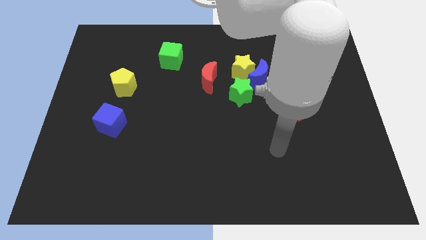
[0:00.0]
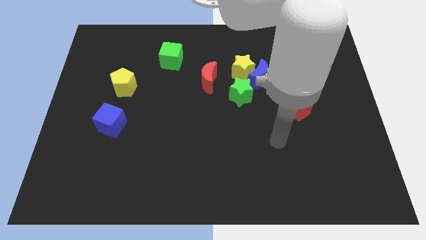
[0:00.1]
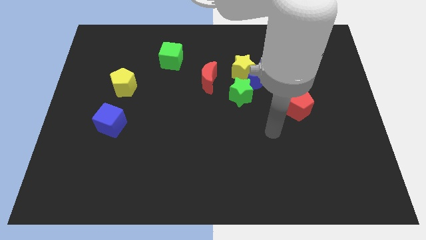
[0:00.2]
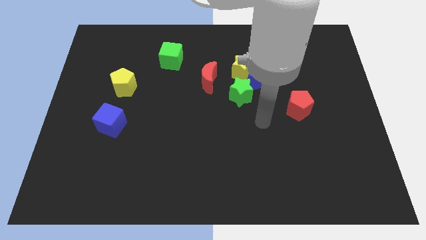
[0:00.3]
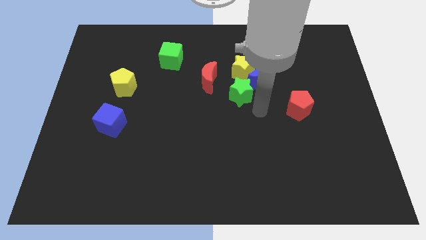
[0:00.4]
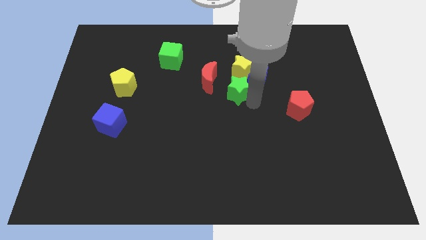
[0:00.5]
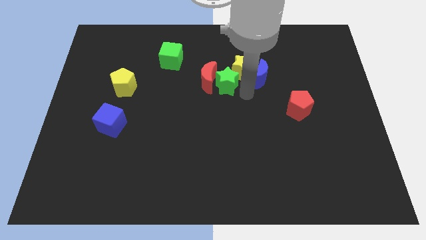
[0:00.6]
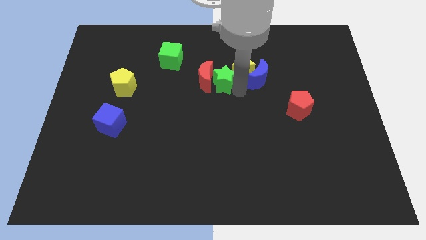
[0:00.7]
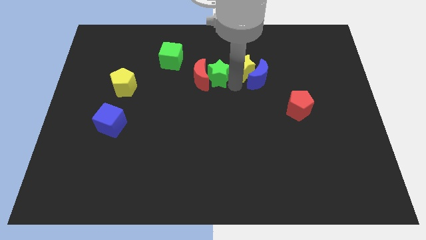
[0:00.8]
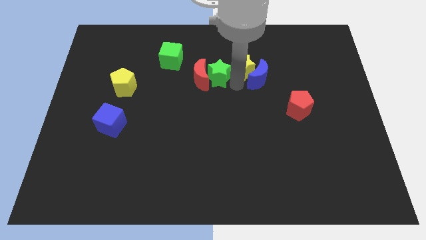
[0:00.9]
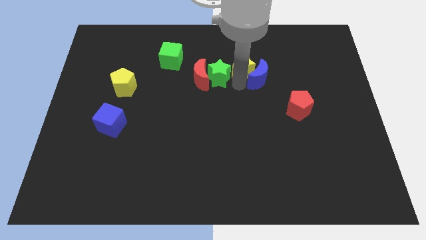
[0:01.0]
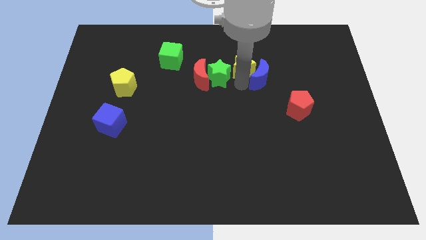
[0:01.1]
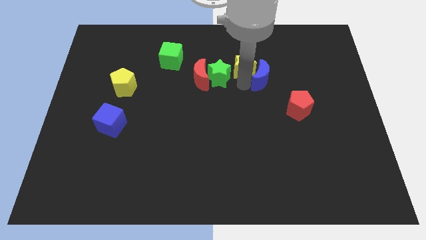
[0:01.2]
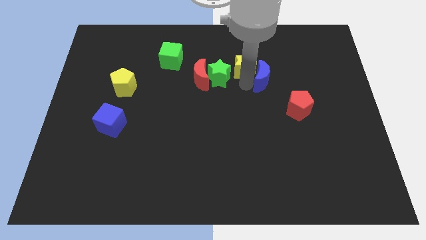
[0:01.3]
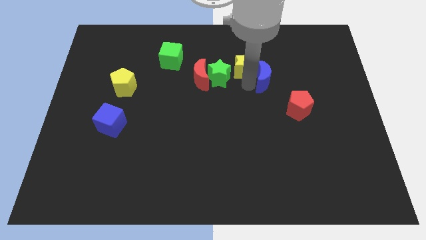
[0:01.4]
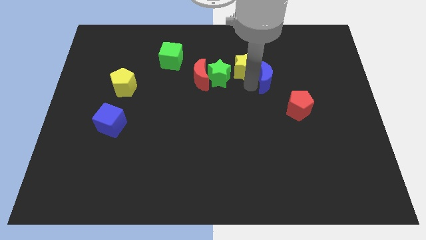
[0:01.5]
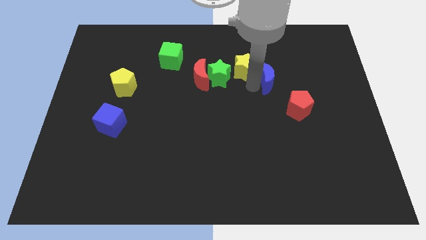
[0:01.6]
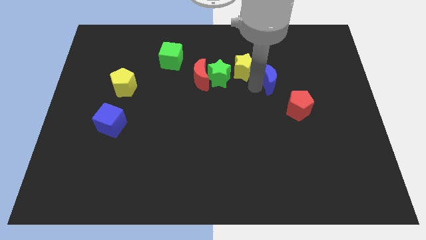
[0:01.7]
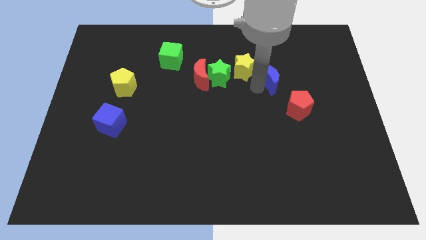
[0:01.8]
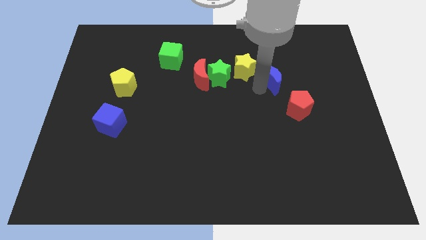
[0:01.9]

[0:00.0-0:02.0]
pull the blue moon apart from the yellow star and green star

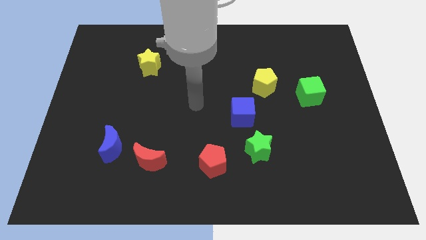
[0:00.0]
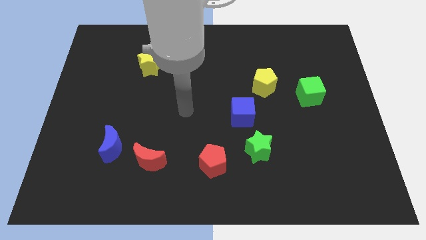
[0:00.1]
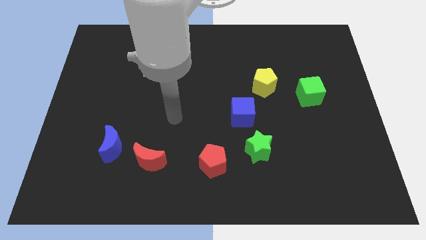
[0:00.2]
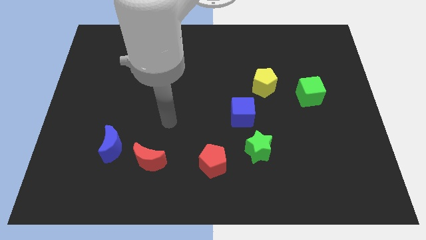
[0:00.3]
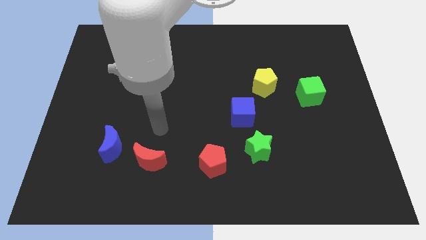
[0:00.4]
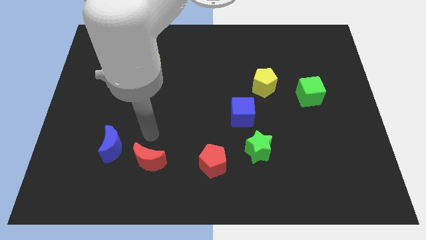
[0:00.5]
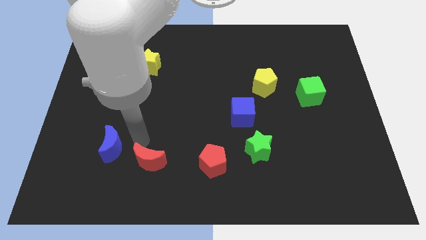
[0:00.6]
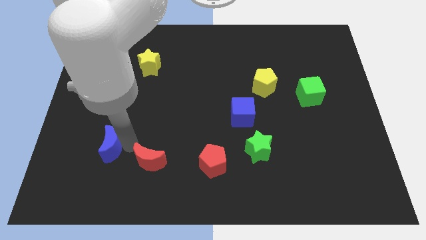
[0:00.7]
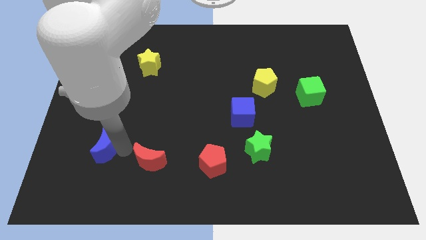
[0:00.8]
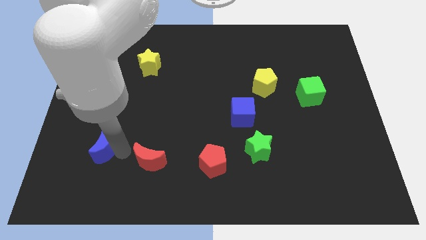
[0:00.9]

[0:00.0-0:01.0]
move the red moon away from the blue moon

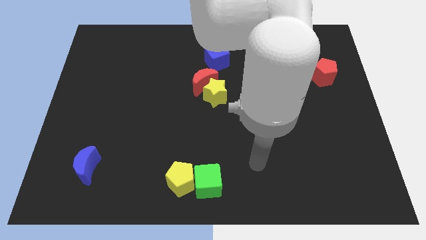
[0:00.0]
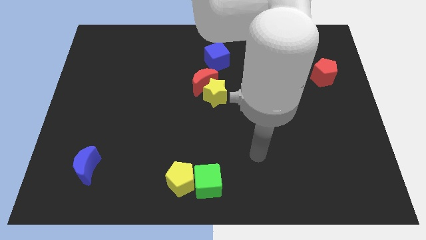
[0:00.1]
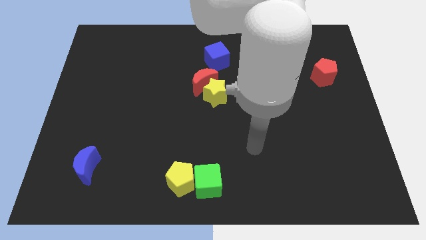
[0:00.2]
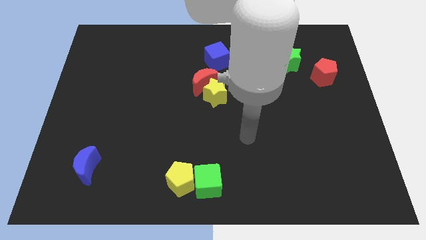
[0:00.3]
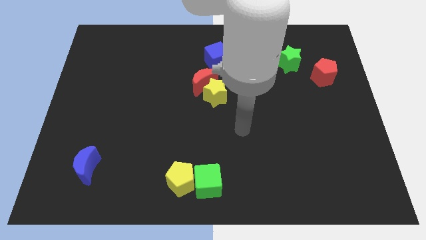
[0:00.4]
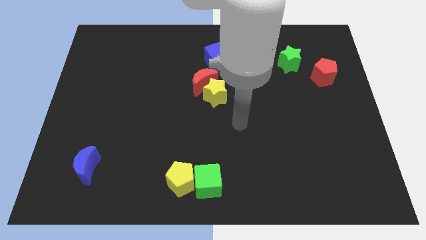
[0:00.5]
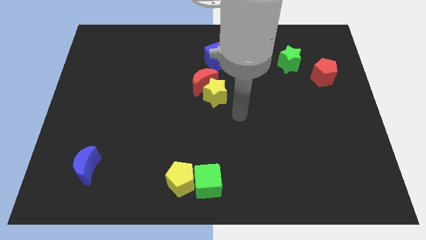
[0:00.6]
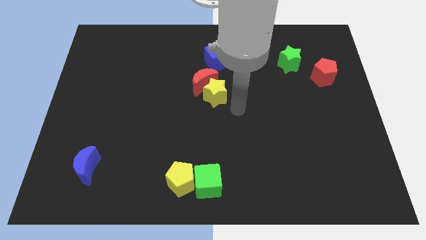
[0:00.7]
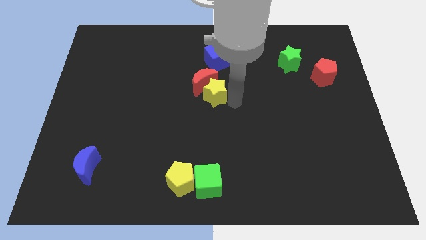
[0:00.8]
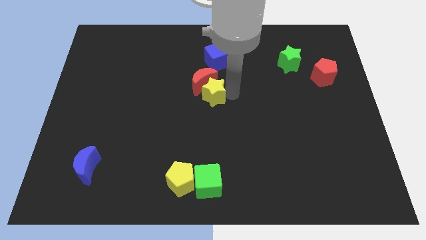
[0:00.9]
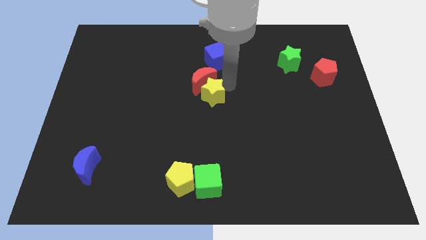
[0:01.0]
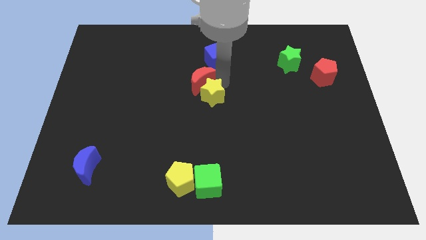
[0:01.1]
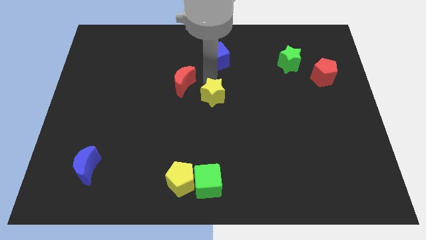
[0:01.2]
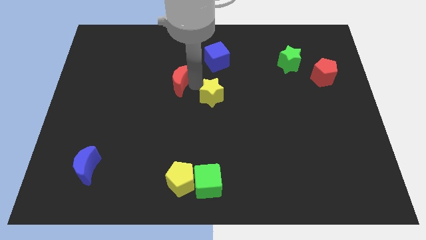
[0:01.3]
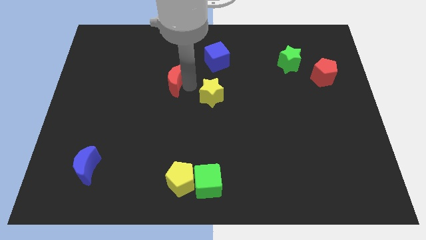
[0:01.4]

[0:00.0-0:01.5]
separate the yellow star from the red moon

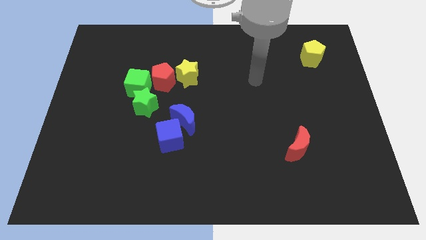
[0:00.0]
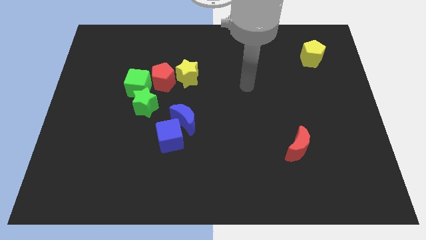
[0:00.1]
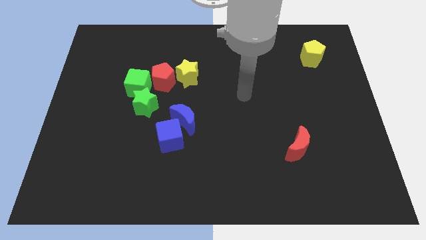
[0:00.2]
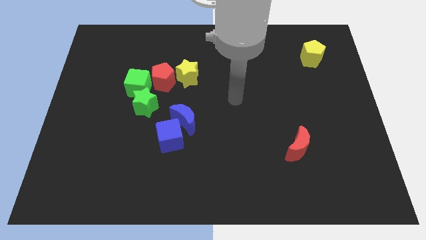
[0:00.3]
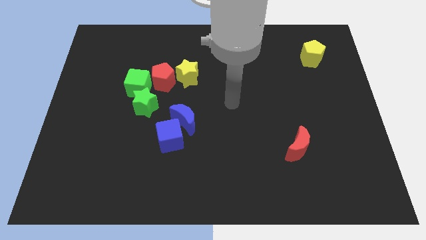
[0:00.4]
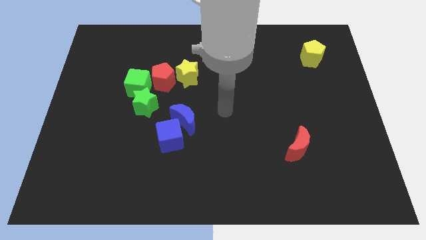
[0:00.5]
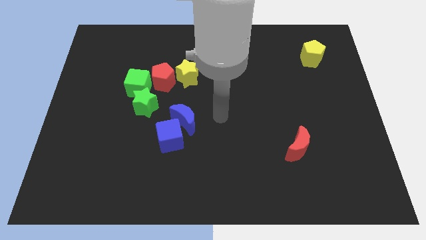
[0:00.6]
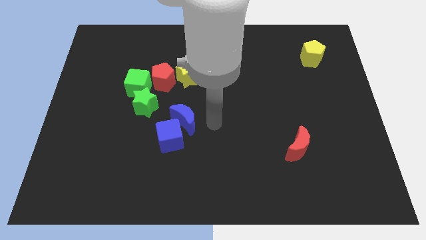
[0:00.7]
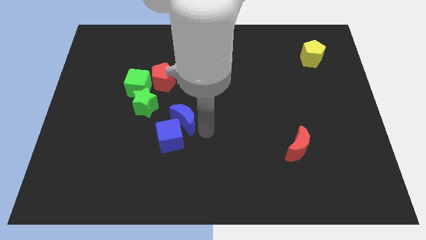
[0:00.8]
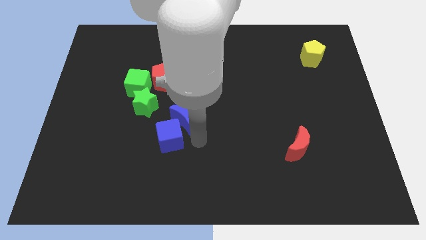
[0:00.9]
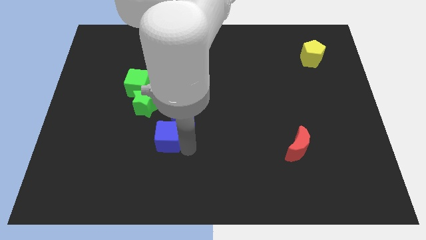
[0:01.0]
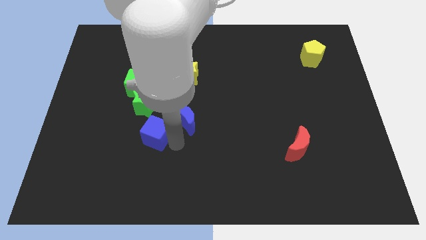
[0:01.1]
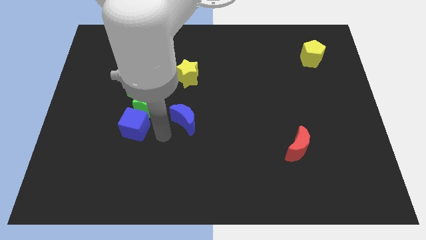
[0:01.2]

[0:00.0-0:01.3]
pull the blue moon apart from the blue cube

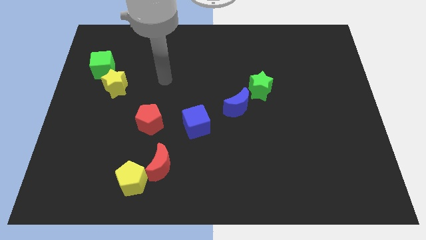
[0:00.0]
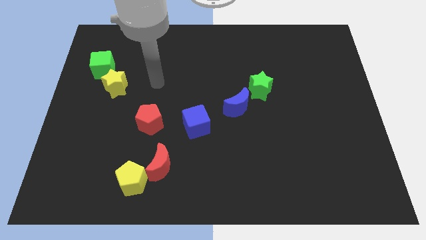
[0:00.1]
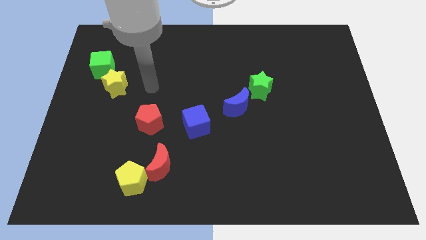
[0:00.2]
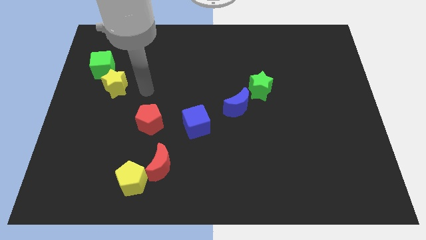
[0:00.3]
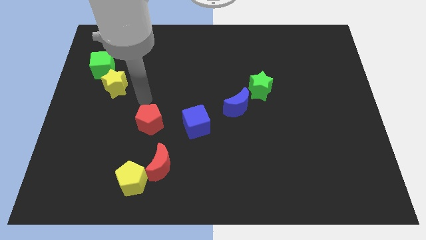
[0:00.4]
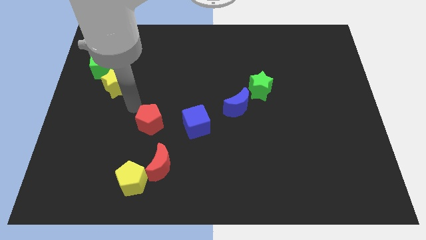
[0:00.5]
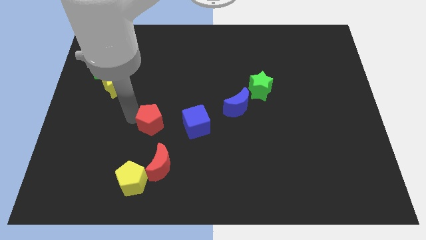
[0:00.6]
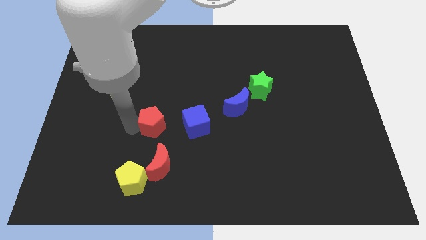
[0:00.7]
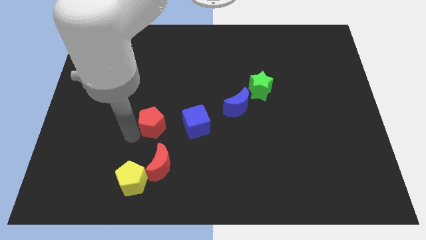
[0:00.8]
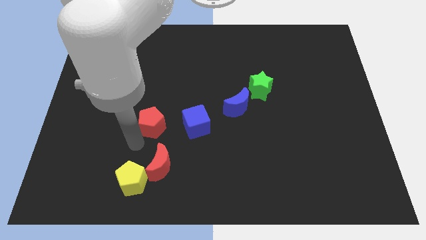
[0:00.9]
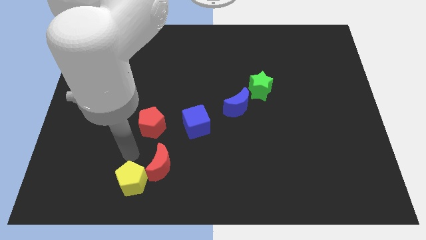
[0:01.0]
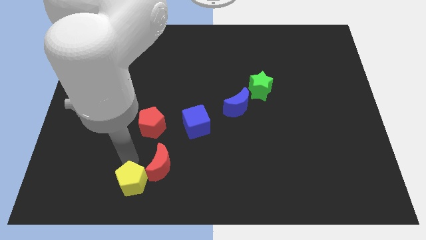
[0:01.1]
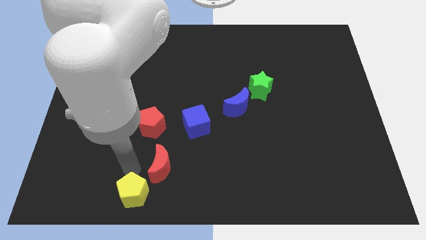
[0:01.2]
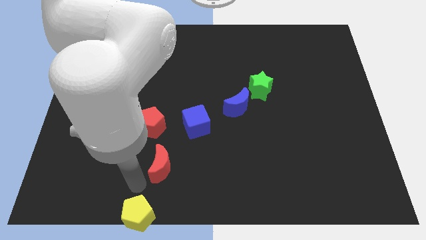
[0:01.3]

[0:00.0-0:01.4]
move the red moon away from the yellow pentagon

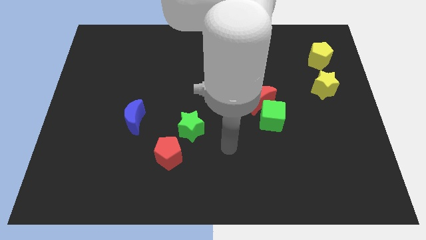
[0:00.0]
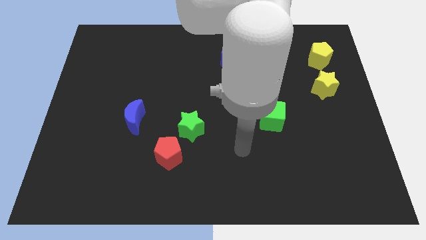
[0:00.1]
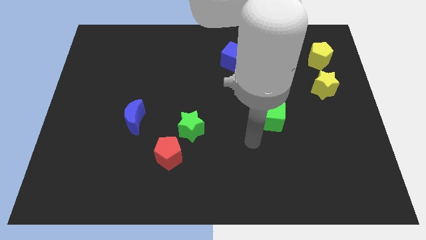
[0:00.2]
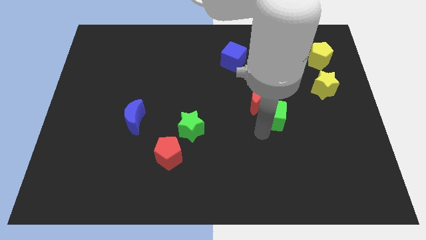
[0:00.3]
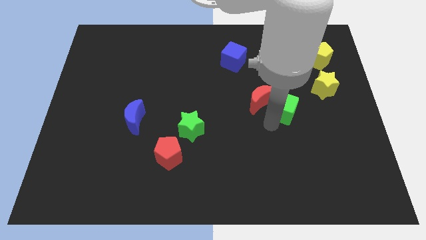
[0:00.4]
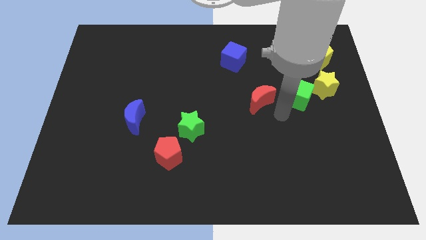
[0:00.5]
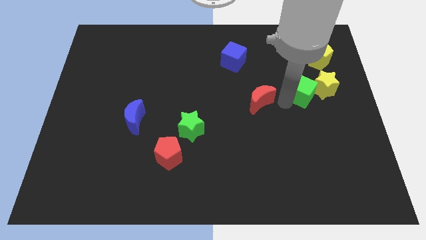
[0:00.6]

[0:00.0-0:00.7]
pull the red moon apart from the green cube

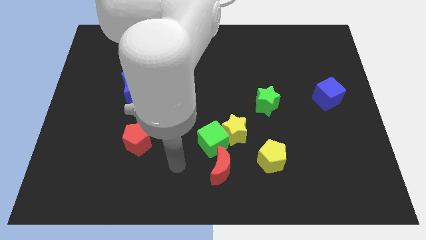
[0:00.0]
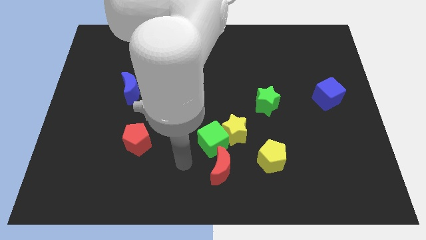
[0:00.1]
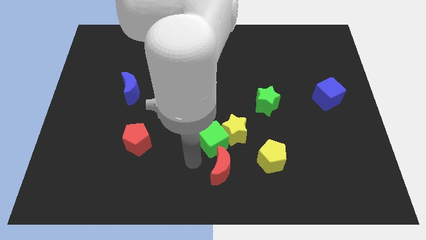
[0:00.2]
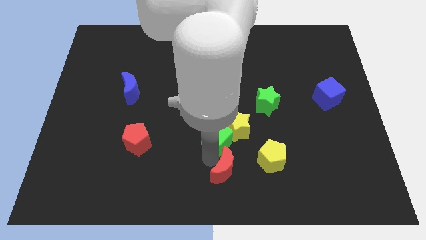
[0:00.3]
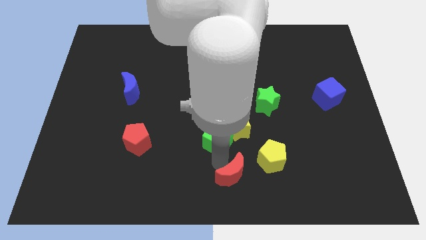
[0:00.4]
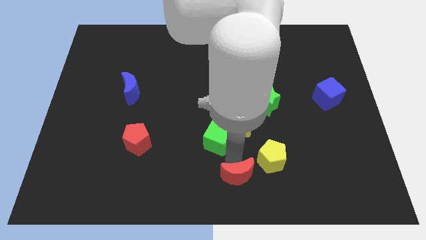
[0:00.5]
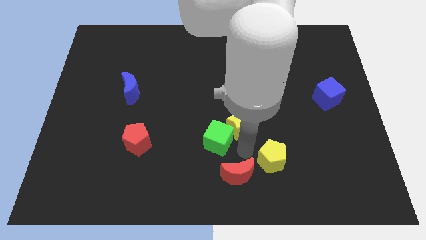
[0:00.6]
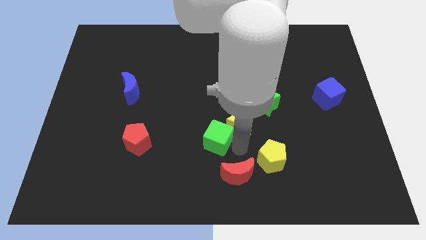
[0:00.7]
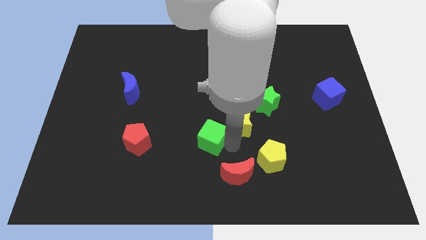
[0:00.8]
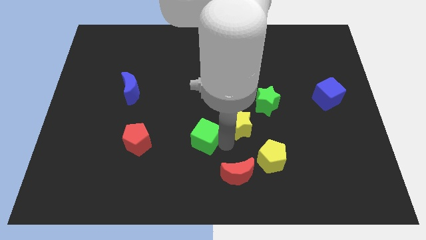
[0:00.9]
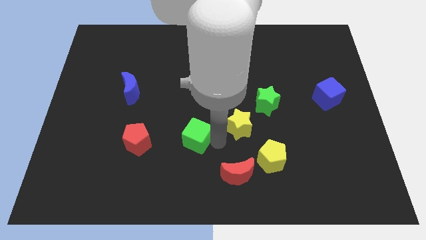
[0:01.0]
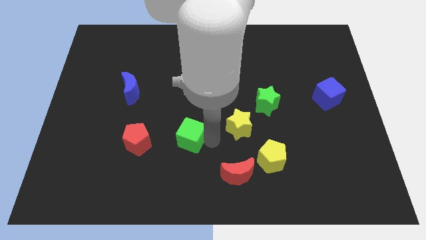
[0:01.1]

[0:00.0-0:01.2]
pull the green cube apart from the yellow star and red moon
